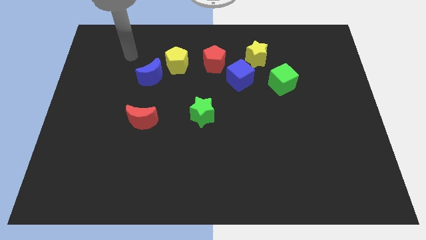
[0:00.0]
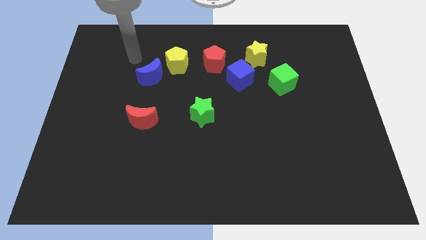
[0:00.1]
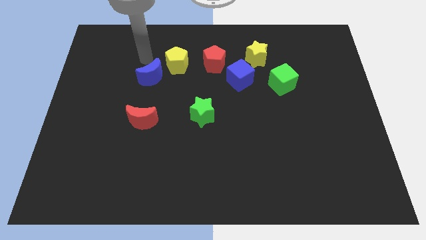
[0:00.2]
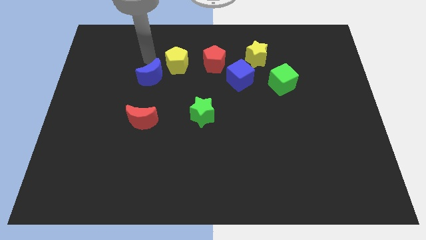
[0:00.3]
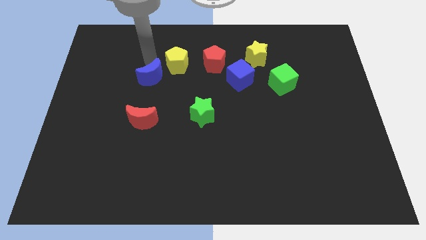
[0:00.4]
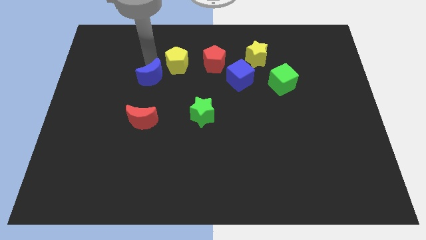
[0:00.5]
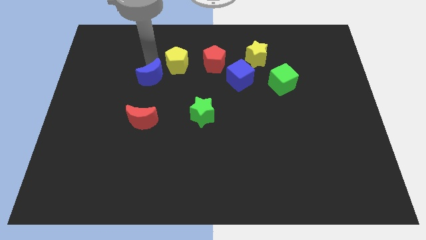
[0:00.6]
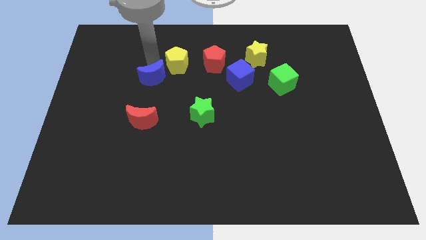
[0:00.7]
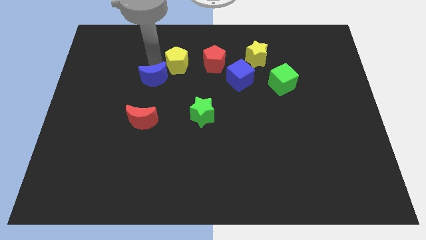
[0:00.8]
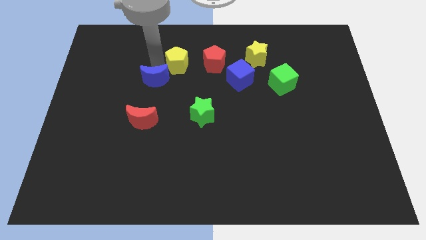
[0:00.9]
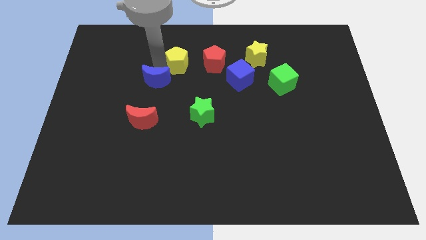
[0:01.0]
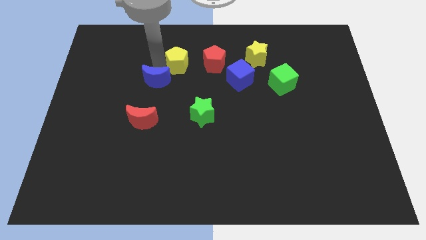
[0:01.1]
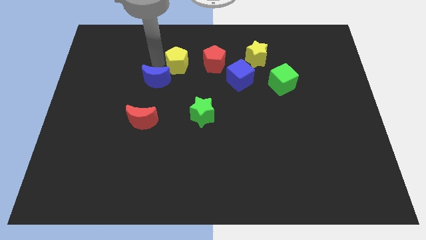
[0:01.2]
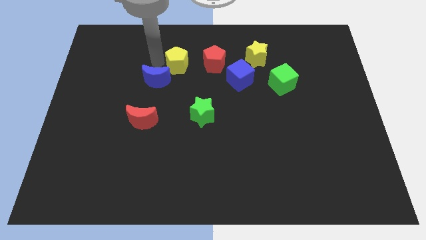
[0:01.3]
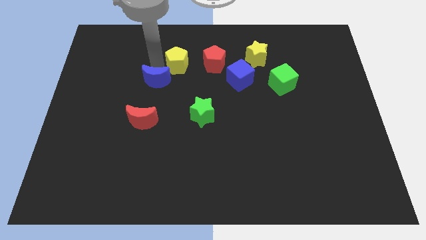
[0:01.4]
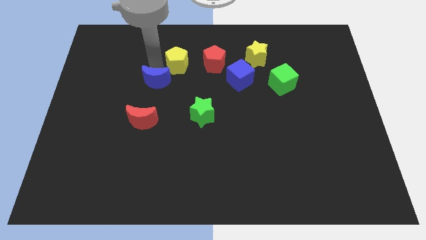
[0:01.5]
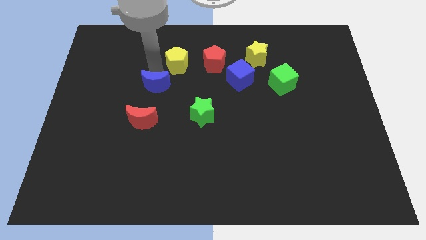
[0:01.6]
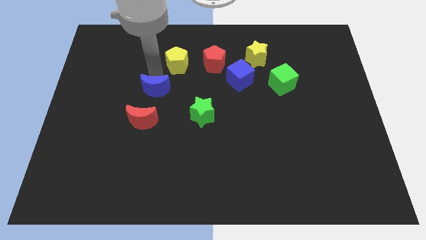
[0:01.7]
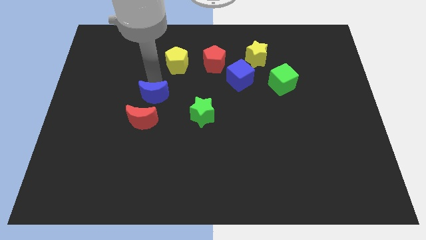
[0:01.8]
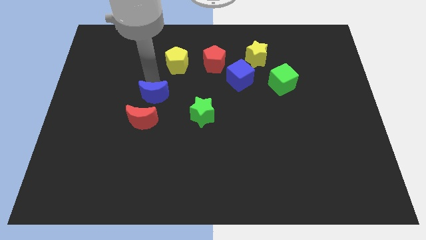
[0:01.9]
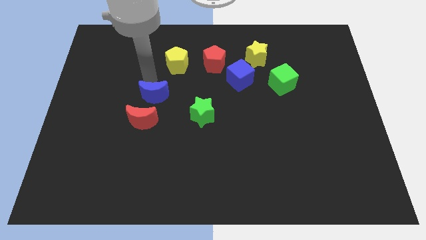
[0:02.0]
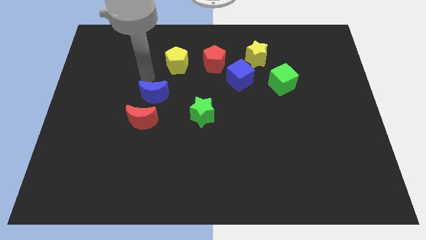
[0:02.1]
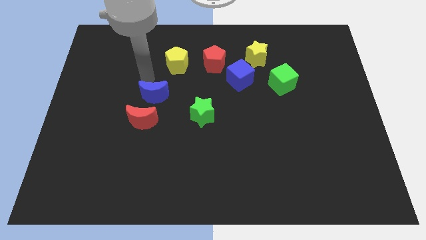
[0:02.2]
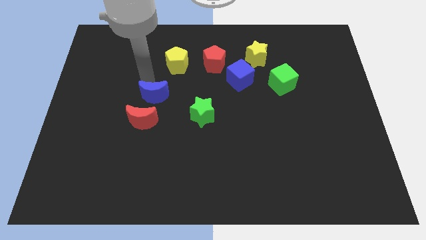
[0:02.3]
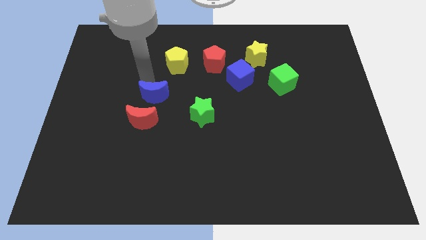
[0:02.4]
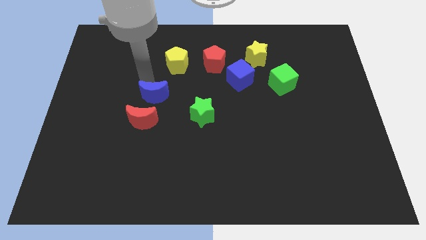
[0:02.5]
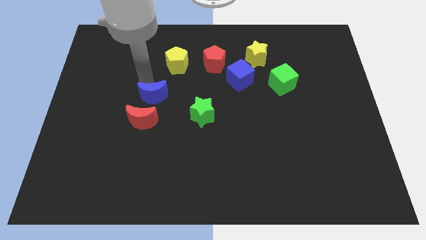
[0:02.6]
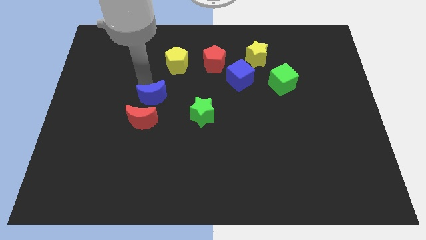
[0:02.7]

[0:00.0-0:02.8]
push the blue moon downwards slightly

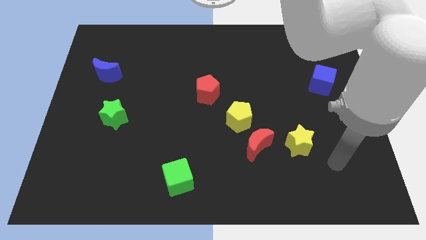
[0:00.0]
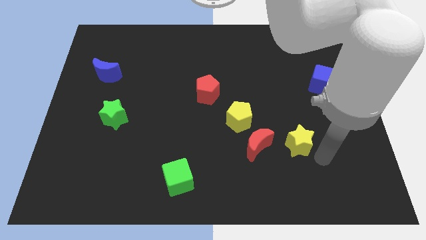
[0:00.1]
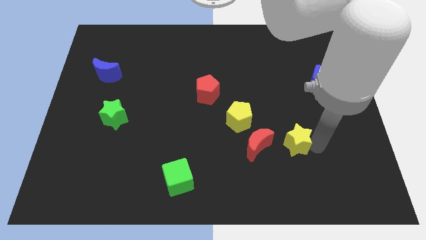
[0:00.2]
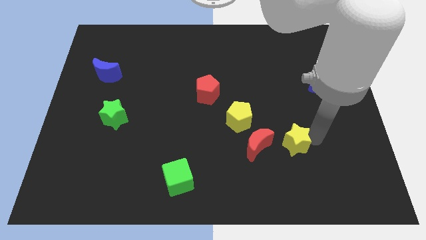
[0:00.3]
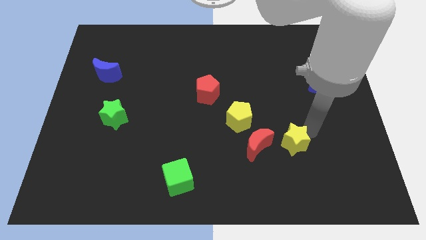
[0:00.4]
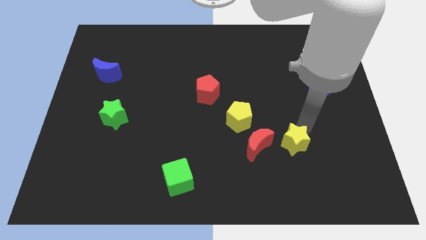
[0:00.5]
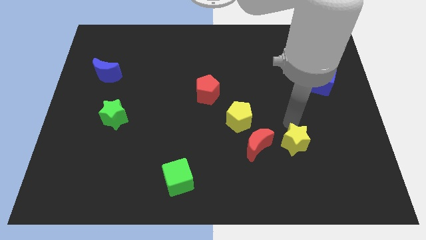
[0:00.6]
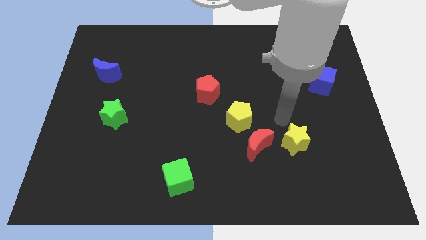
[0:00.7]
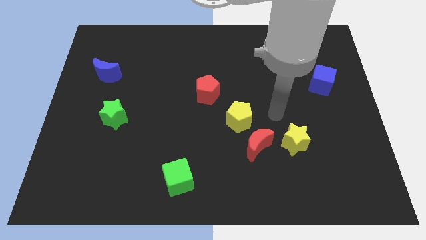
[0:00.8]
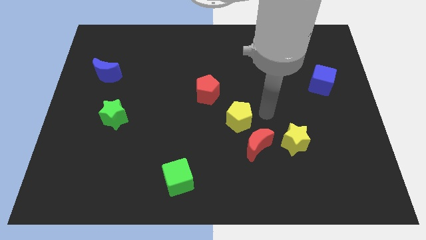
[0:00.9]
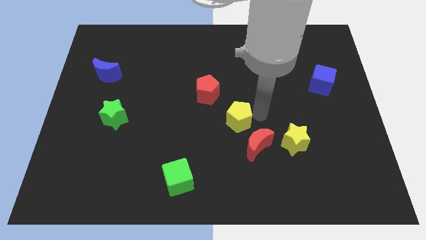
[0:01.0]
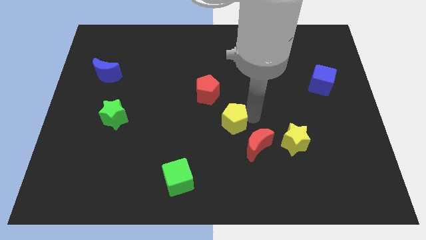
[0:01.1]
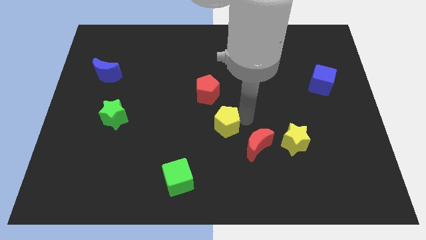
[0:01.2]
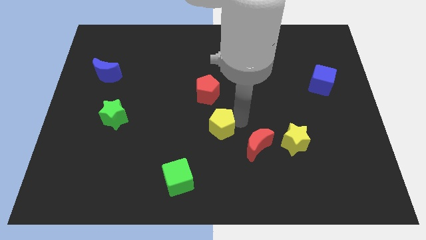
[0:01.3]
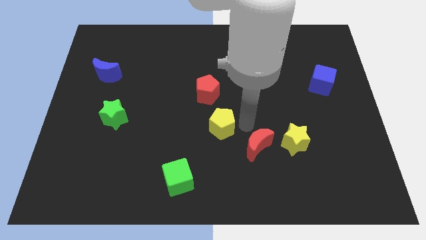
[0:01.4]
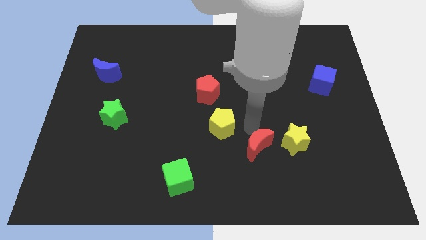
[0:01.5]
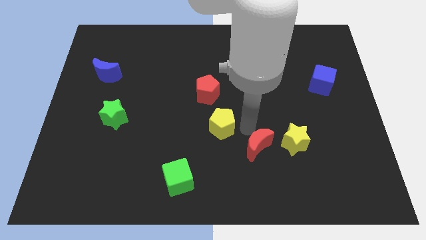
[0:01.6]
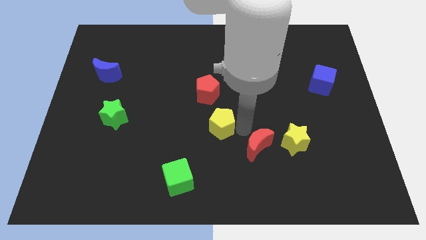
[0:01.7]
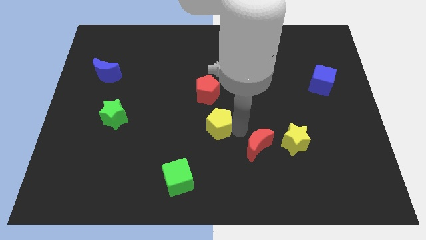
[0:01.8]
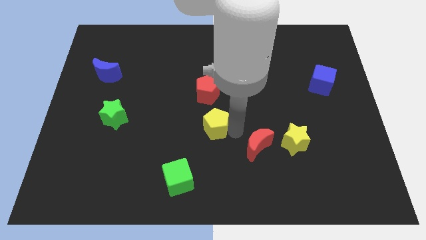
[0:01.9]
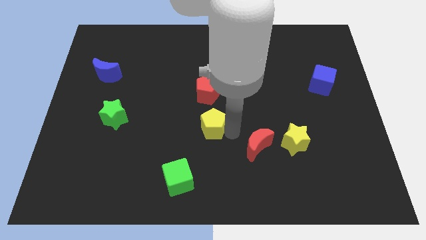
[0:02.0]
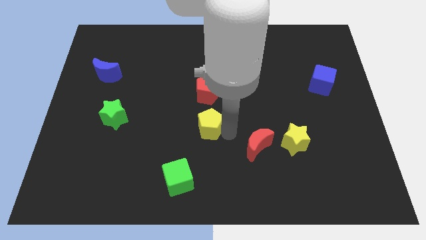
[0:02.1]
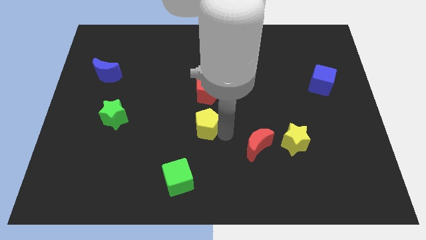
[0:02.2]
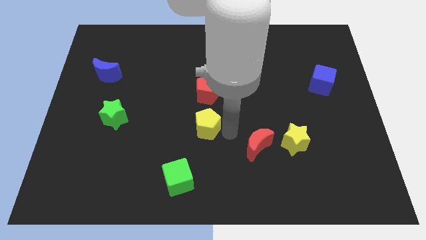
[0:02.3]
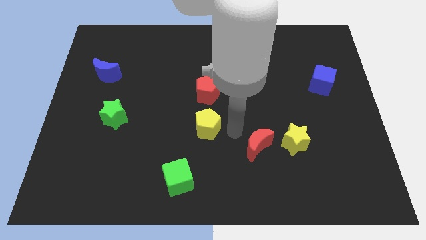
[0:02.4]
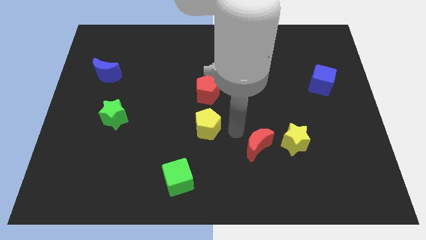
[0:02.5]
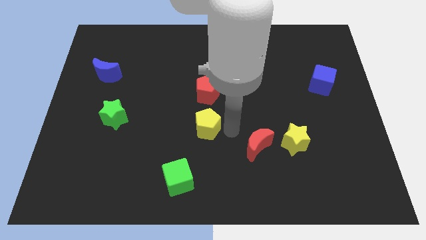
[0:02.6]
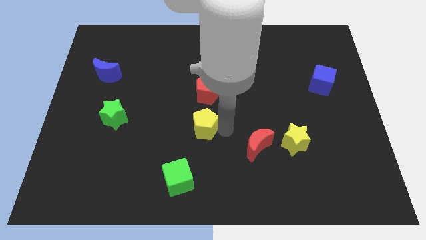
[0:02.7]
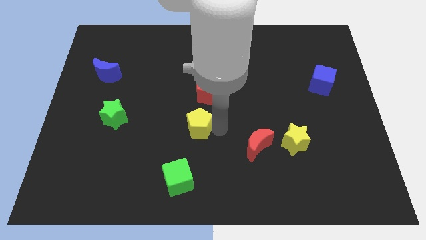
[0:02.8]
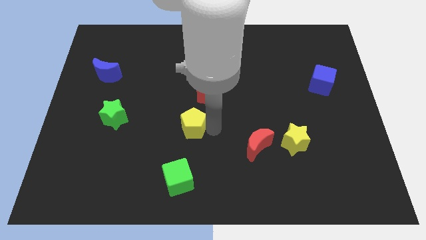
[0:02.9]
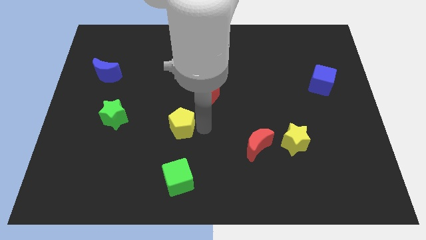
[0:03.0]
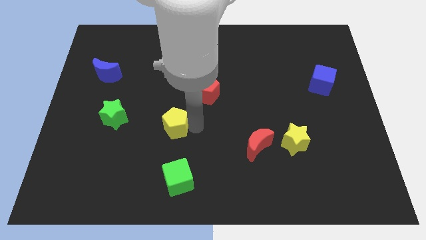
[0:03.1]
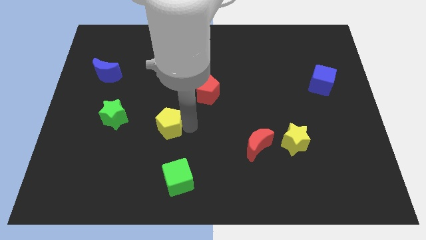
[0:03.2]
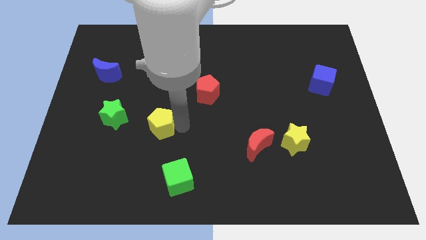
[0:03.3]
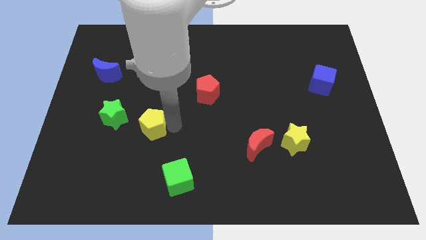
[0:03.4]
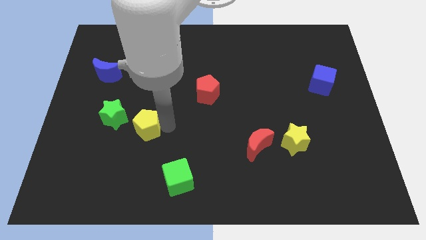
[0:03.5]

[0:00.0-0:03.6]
move the yellow pentagon left

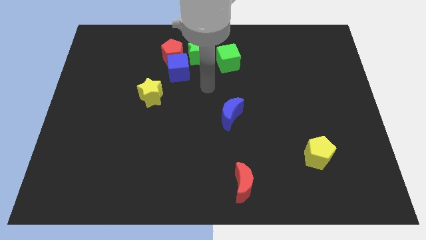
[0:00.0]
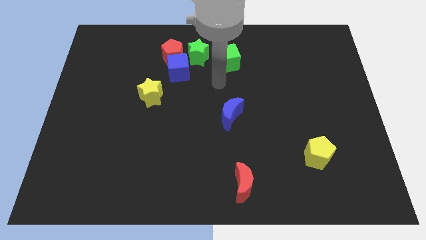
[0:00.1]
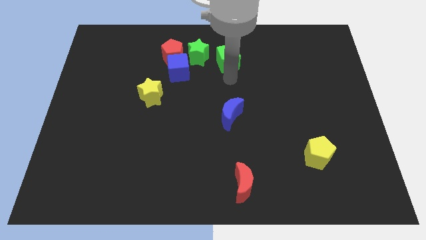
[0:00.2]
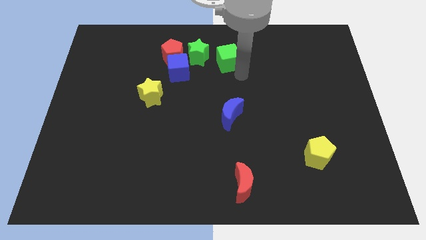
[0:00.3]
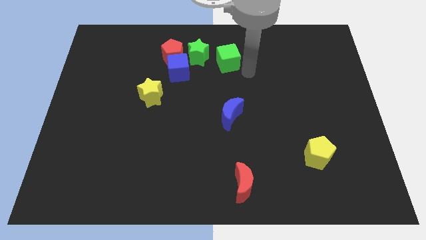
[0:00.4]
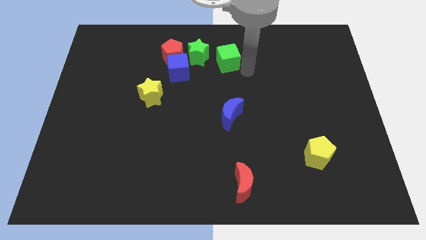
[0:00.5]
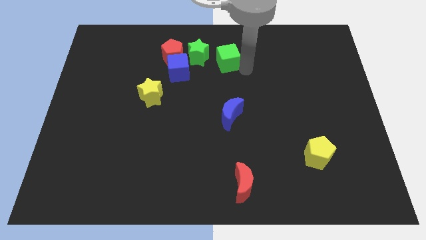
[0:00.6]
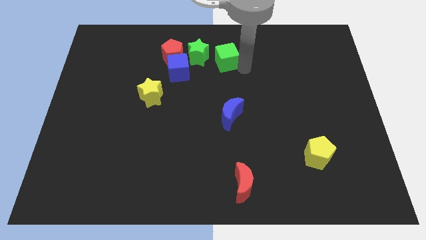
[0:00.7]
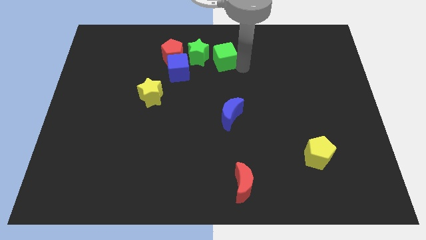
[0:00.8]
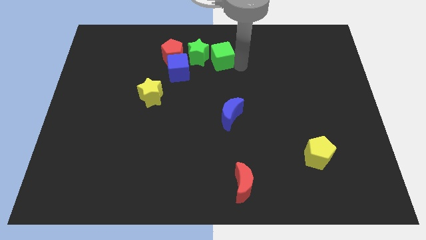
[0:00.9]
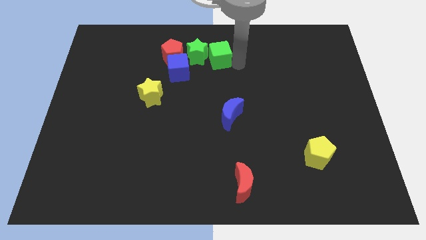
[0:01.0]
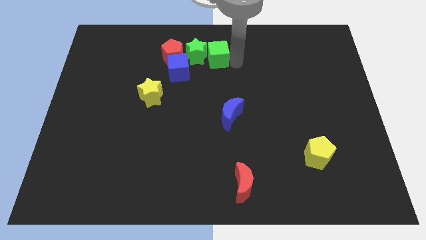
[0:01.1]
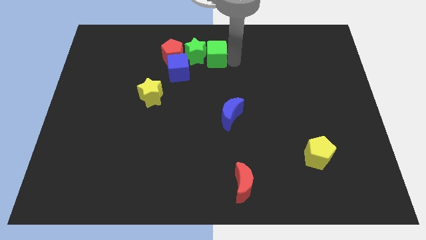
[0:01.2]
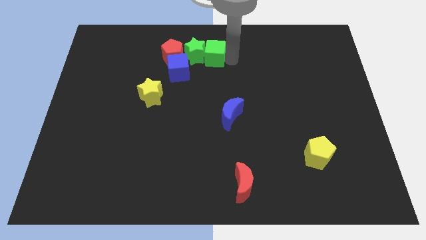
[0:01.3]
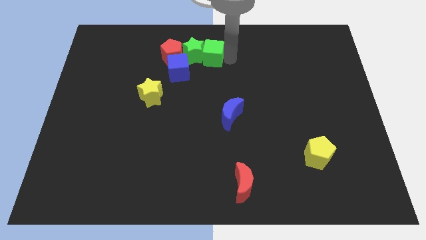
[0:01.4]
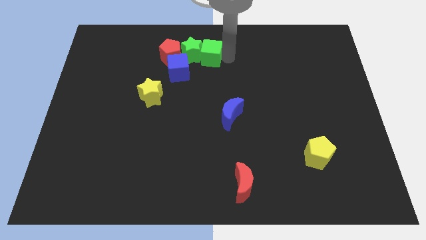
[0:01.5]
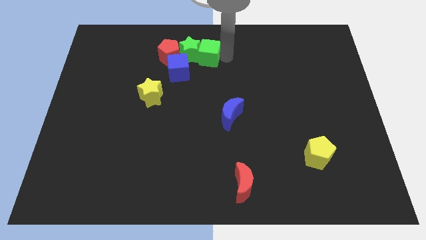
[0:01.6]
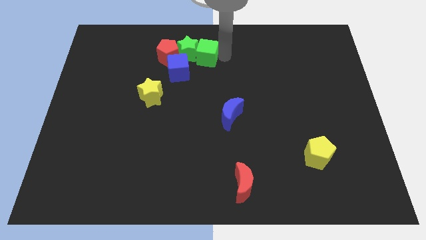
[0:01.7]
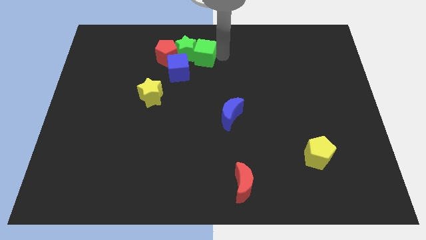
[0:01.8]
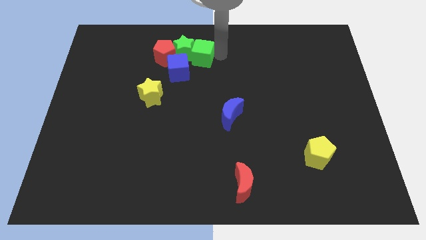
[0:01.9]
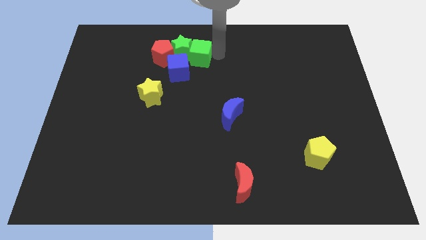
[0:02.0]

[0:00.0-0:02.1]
slightly move the green cube to the left

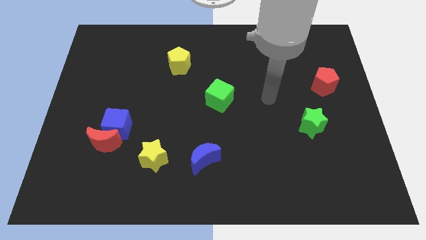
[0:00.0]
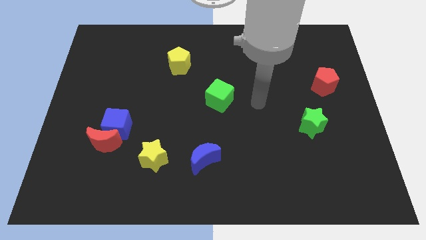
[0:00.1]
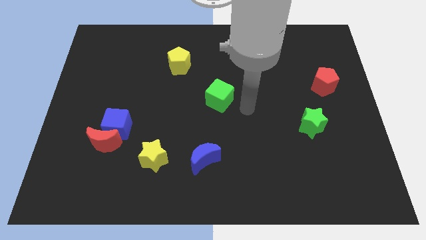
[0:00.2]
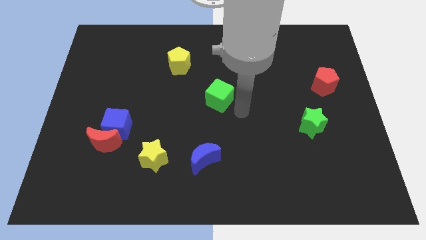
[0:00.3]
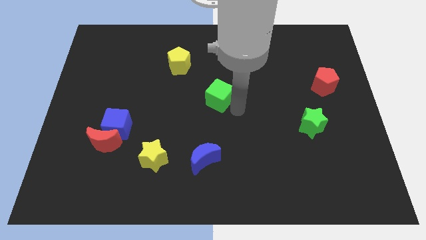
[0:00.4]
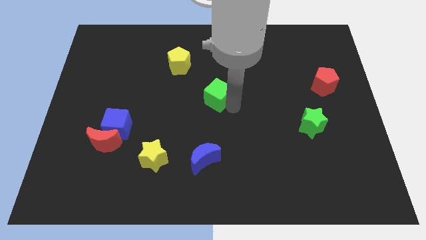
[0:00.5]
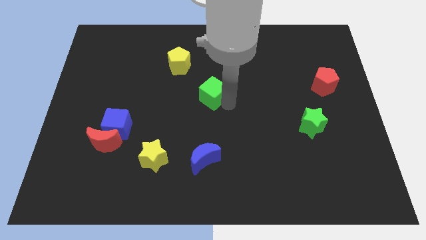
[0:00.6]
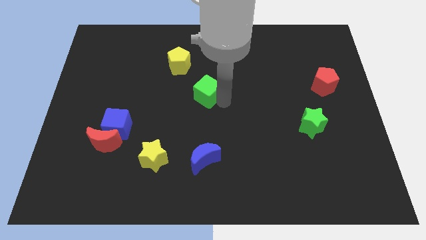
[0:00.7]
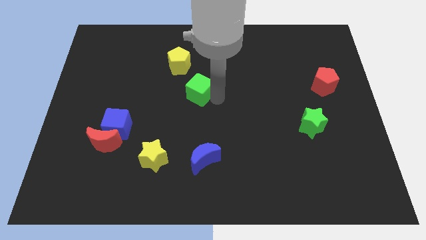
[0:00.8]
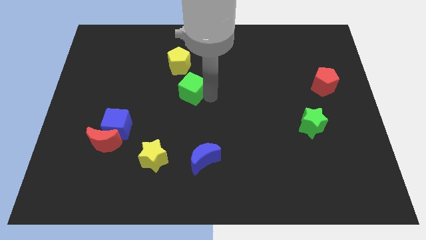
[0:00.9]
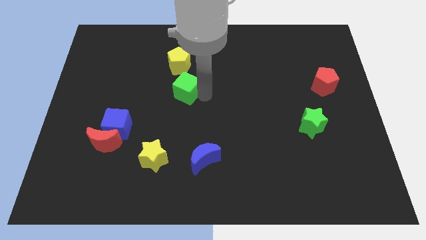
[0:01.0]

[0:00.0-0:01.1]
move the green cube diagonally up and to the left a bit
